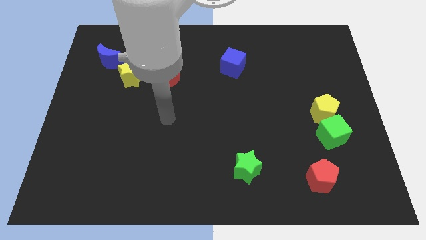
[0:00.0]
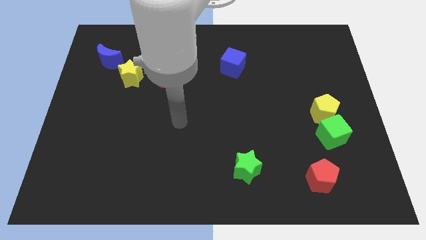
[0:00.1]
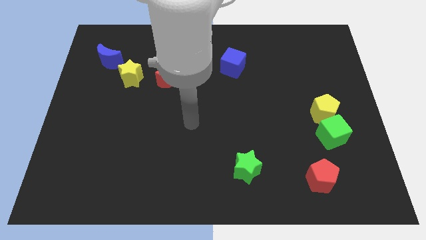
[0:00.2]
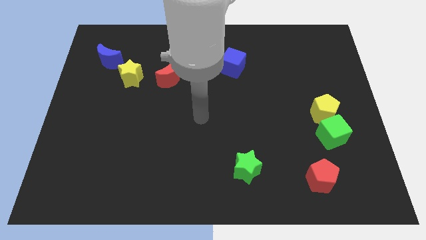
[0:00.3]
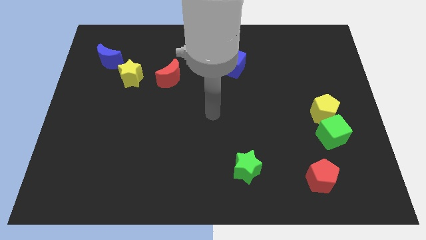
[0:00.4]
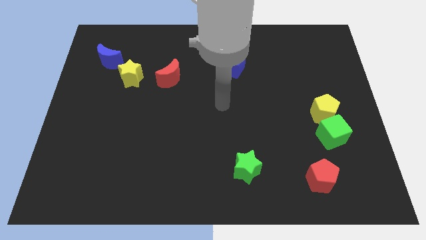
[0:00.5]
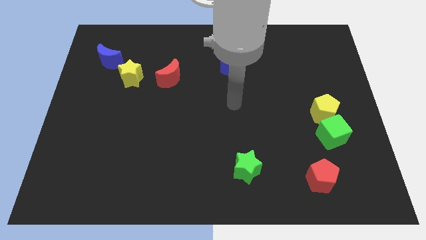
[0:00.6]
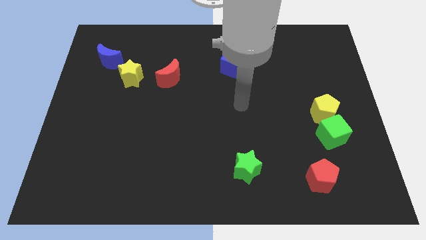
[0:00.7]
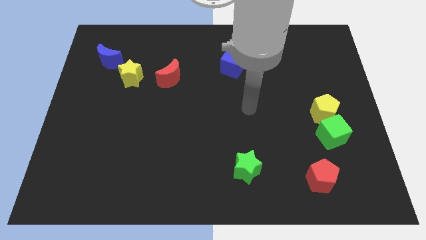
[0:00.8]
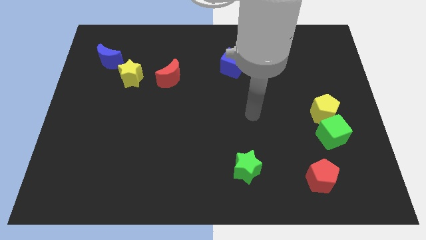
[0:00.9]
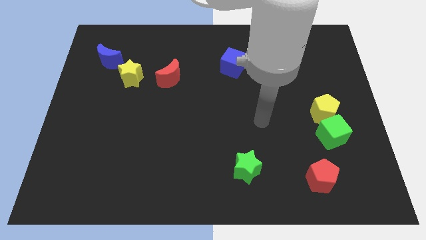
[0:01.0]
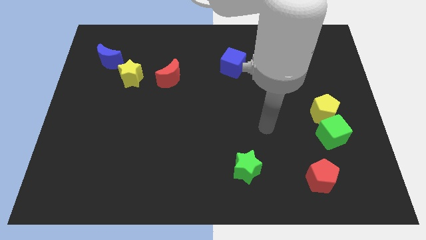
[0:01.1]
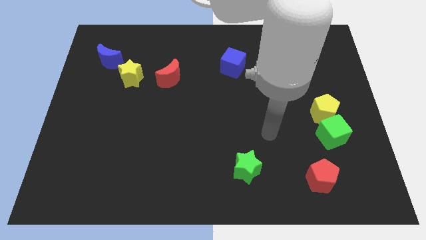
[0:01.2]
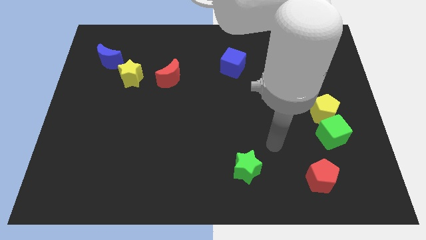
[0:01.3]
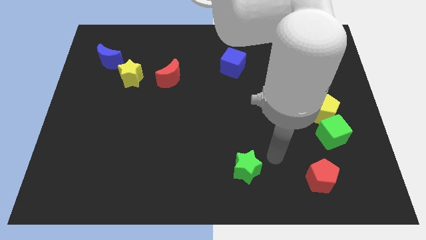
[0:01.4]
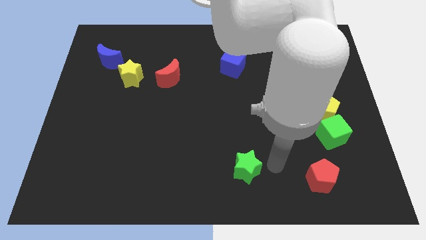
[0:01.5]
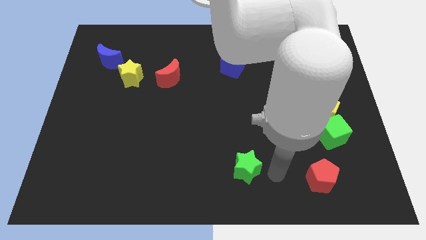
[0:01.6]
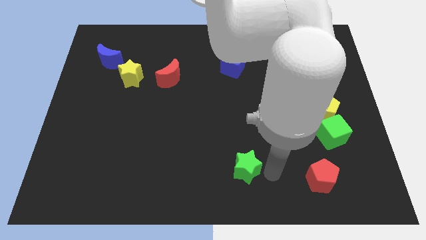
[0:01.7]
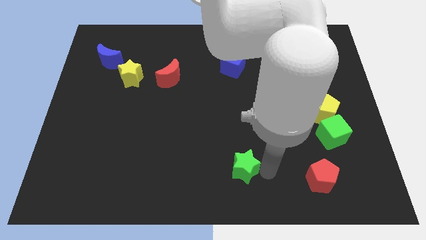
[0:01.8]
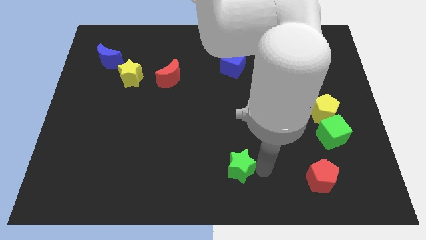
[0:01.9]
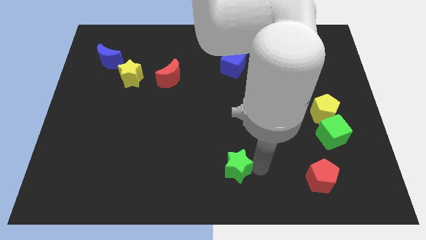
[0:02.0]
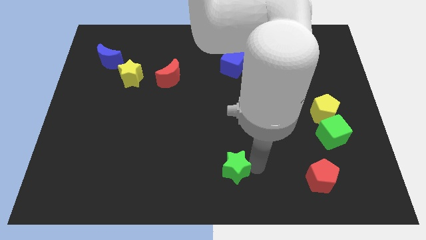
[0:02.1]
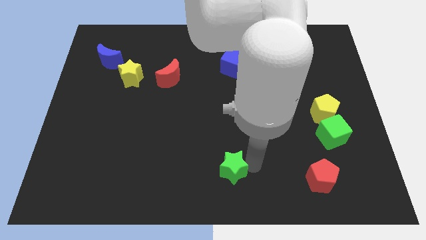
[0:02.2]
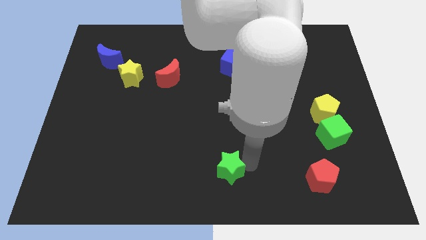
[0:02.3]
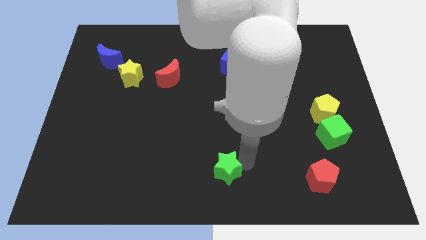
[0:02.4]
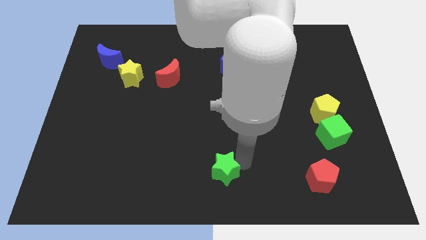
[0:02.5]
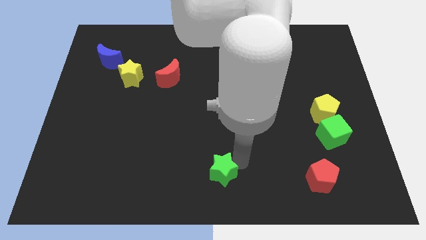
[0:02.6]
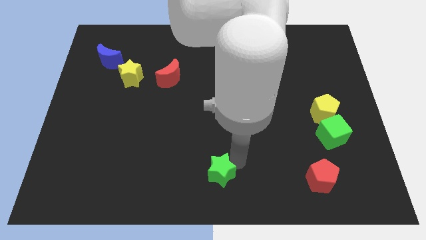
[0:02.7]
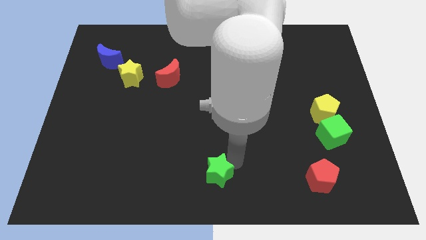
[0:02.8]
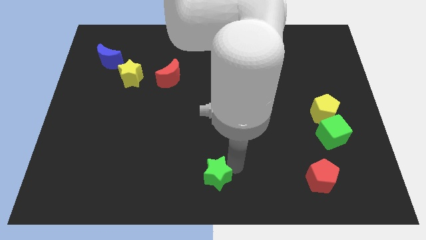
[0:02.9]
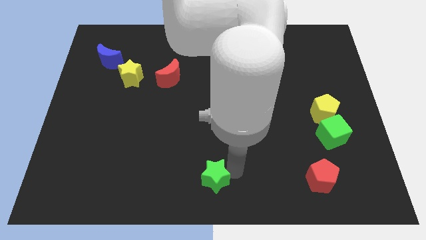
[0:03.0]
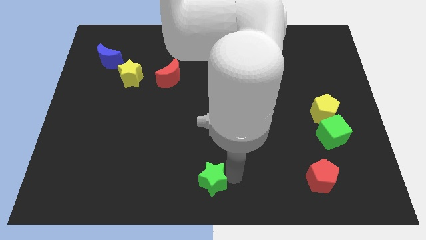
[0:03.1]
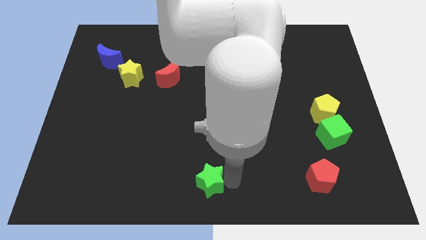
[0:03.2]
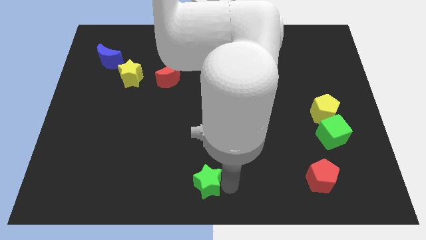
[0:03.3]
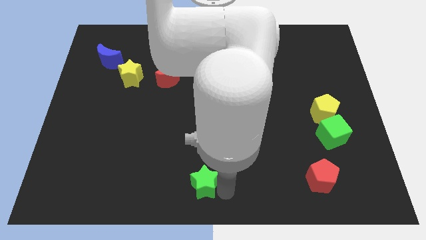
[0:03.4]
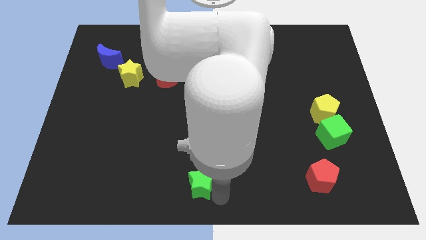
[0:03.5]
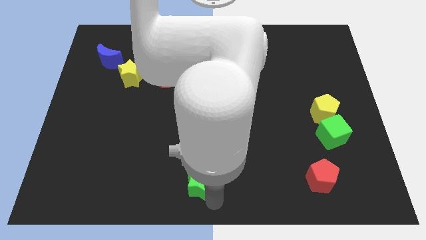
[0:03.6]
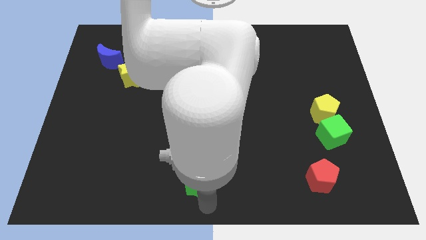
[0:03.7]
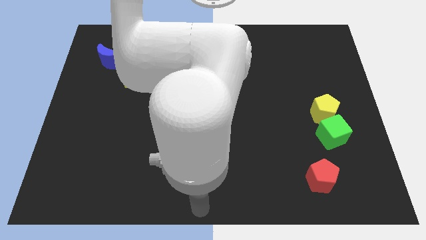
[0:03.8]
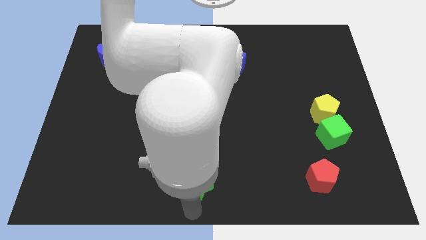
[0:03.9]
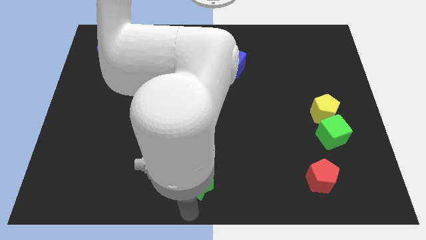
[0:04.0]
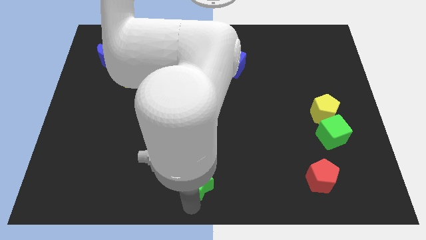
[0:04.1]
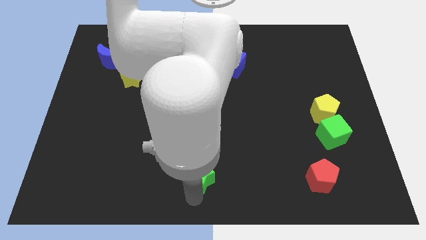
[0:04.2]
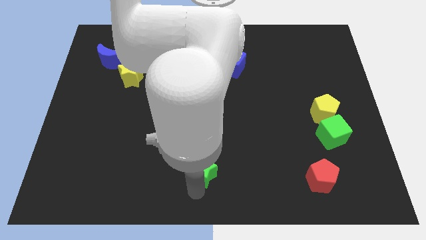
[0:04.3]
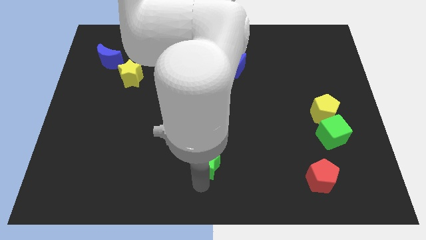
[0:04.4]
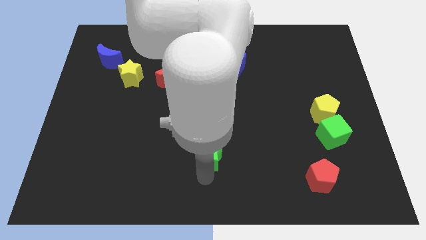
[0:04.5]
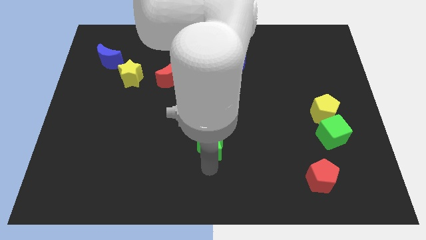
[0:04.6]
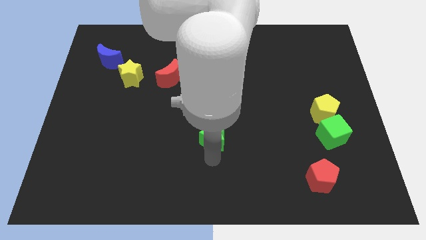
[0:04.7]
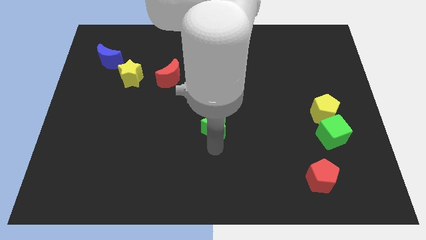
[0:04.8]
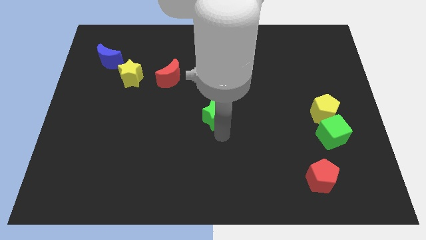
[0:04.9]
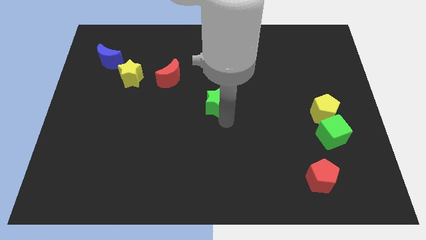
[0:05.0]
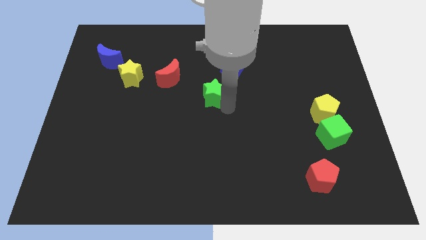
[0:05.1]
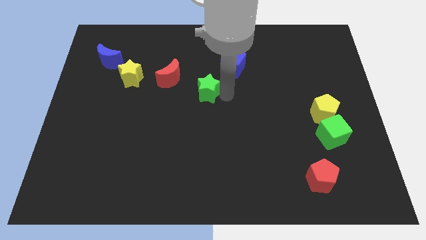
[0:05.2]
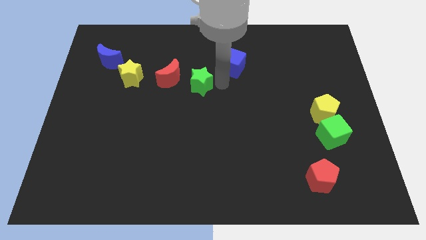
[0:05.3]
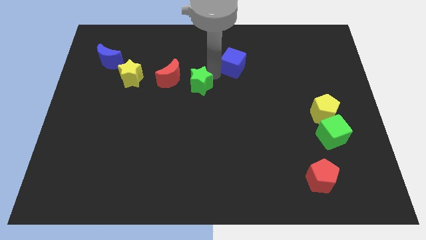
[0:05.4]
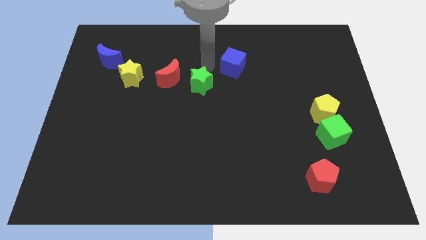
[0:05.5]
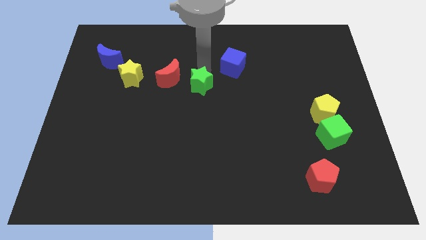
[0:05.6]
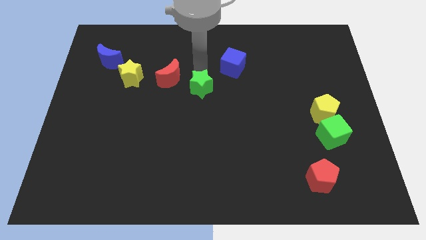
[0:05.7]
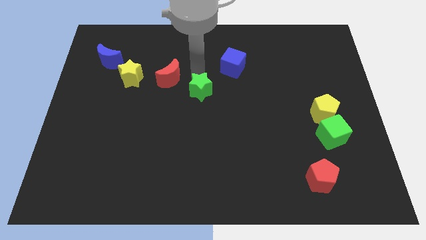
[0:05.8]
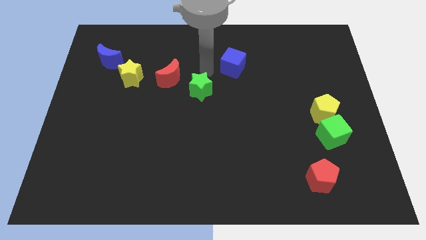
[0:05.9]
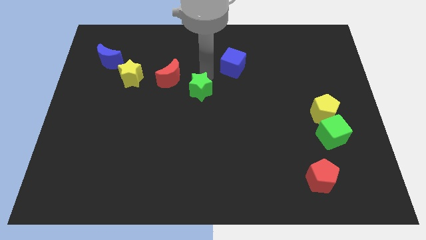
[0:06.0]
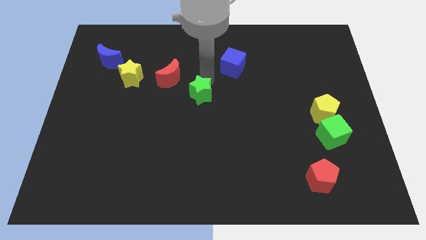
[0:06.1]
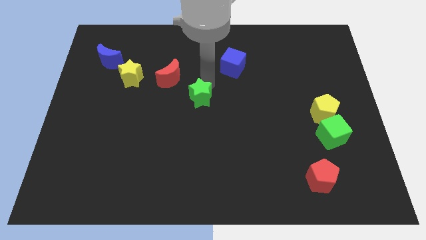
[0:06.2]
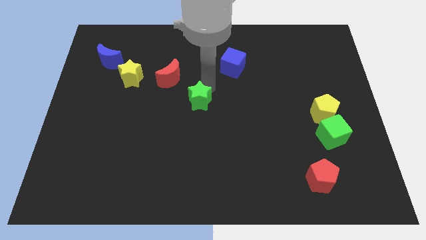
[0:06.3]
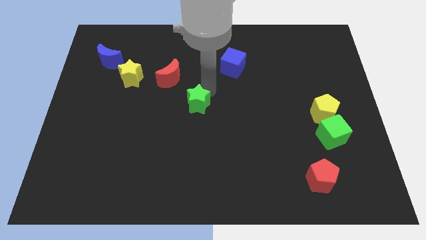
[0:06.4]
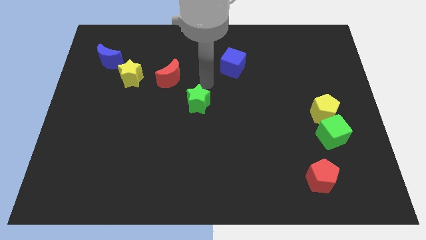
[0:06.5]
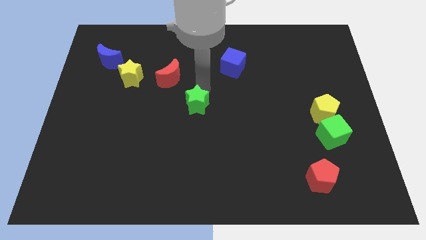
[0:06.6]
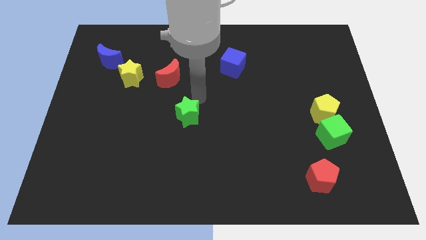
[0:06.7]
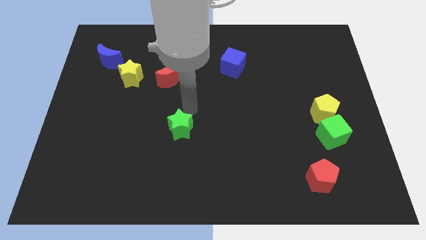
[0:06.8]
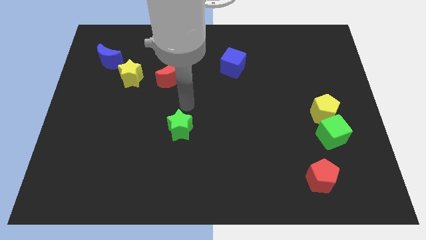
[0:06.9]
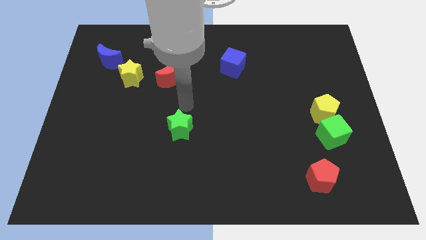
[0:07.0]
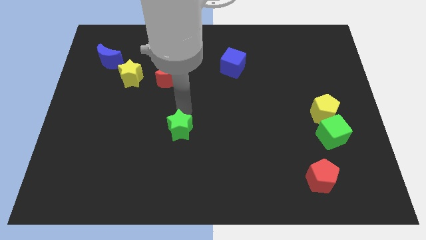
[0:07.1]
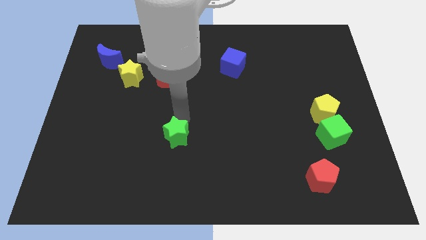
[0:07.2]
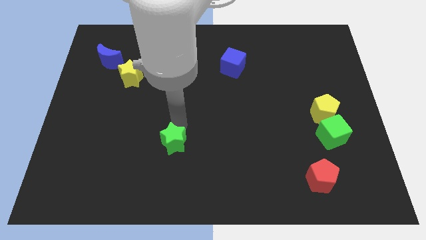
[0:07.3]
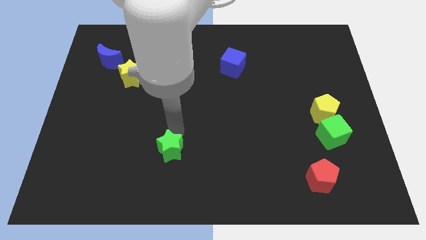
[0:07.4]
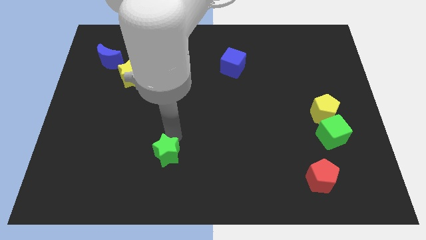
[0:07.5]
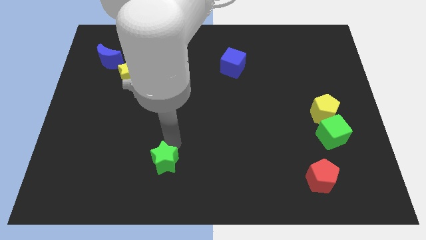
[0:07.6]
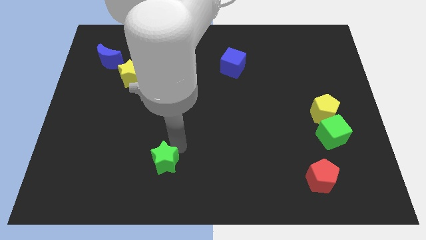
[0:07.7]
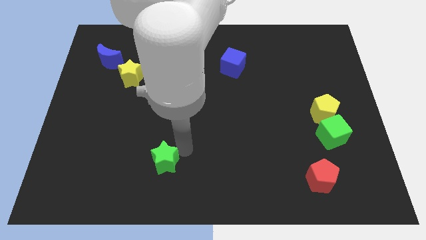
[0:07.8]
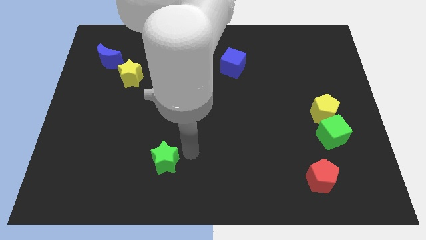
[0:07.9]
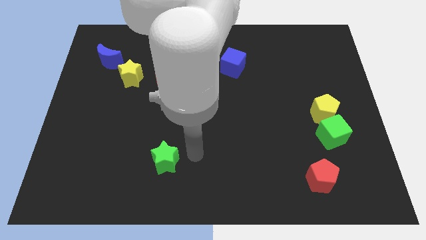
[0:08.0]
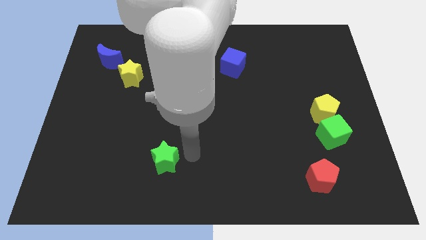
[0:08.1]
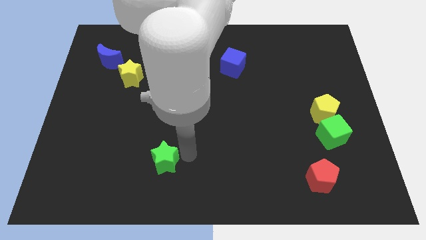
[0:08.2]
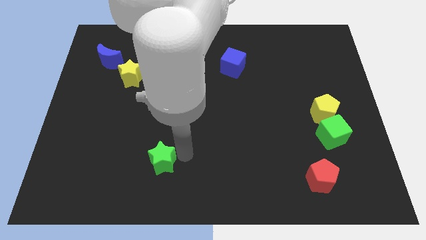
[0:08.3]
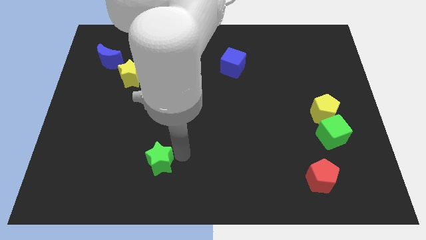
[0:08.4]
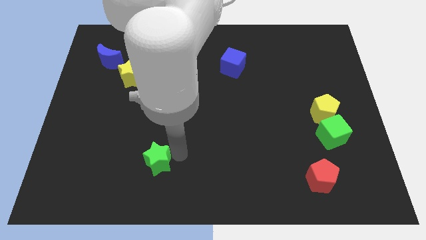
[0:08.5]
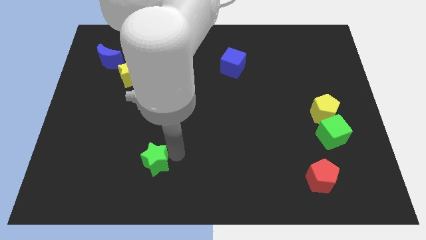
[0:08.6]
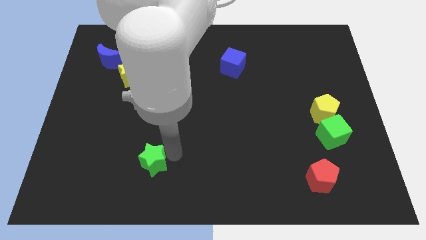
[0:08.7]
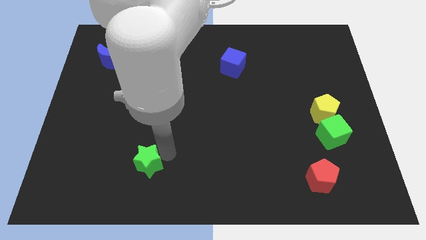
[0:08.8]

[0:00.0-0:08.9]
push the green star to the left
